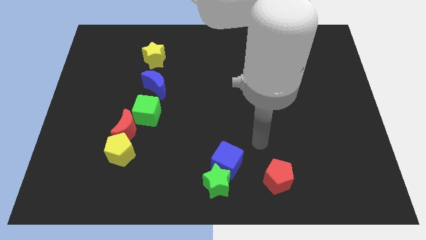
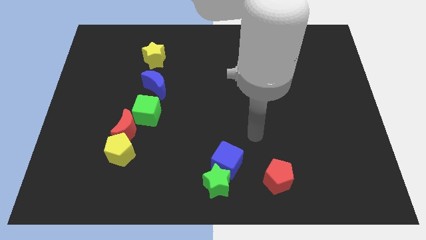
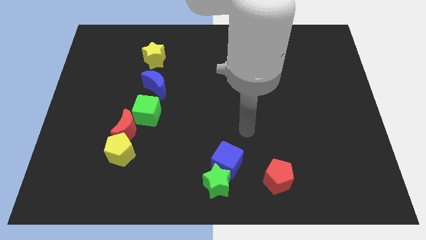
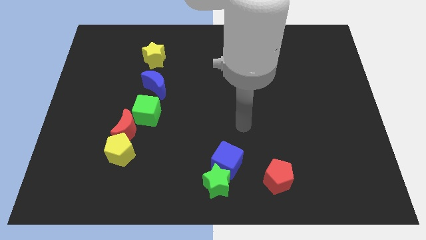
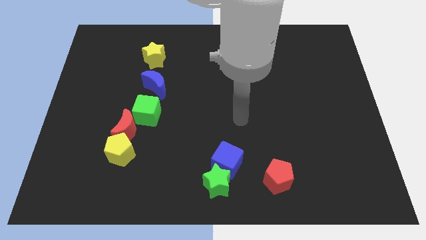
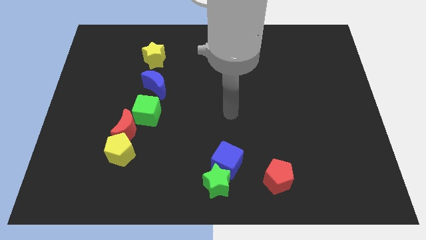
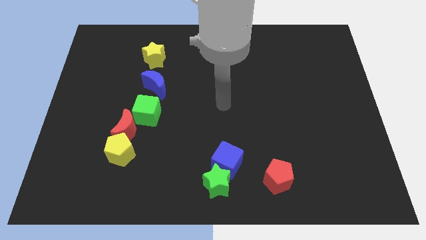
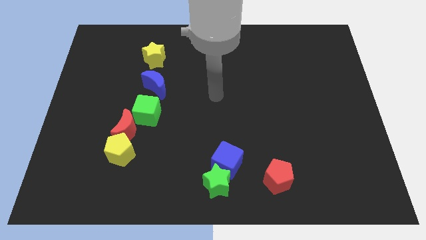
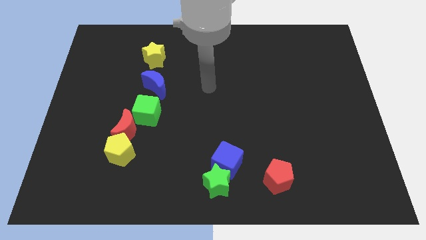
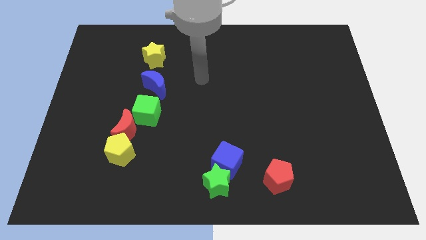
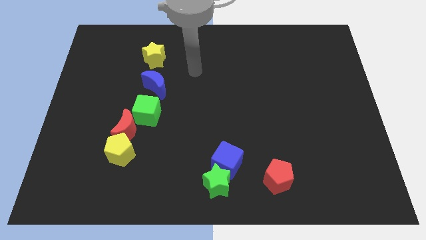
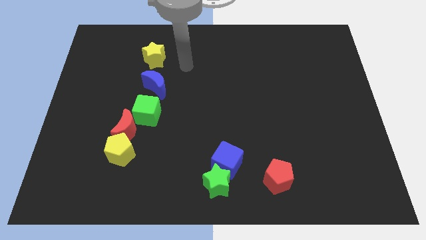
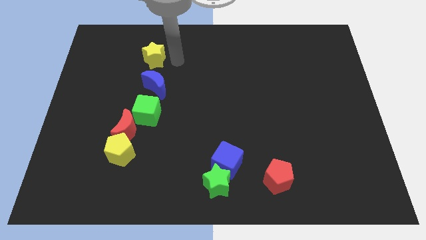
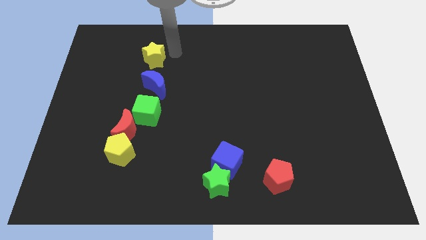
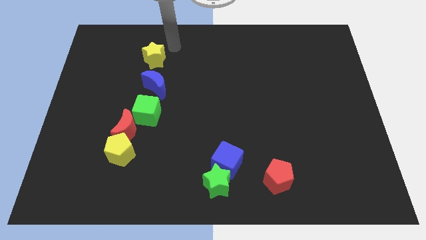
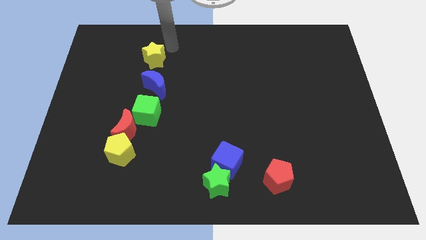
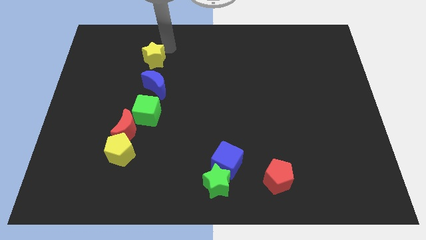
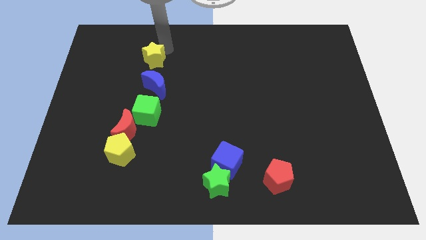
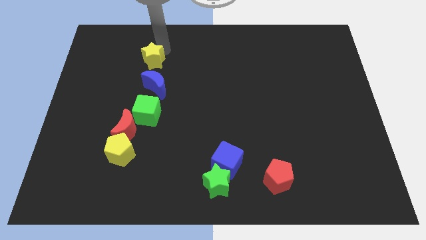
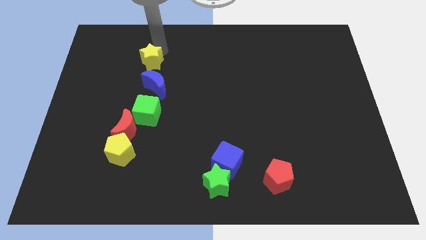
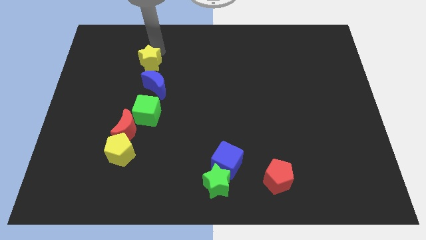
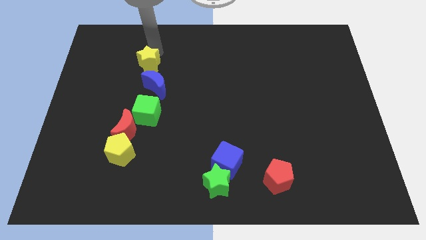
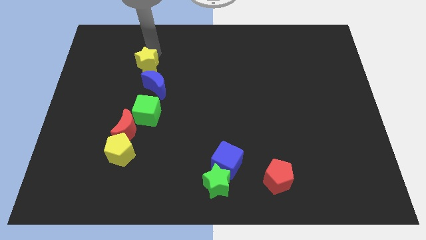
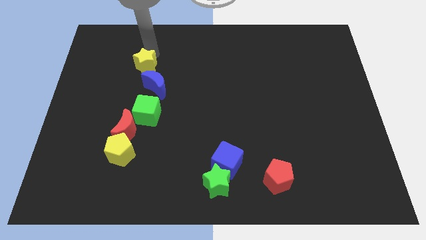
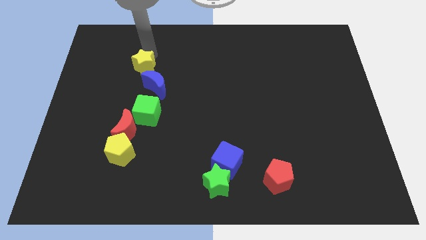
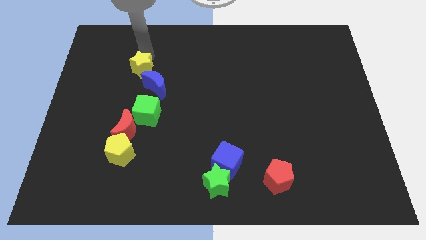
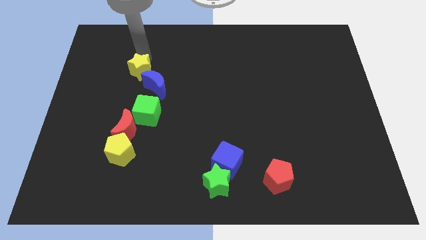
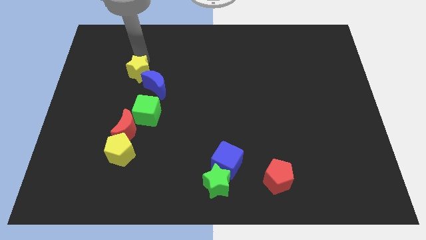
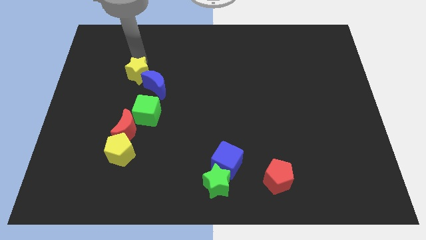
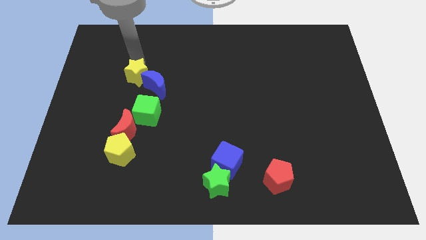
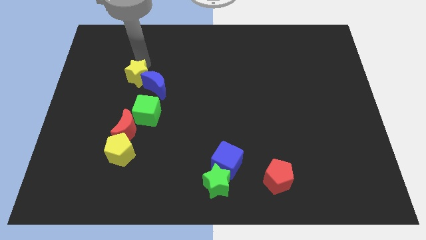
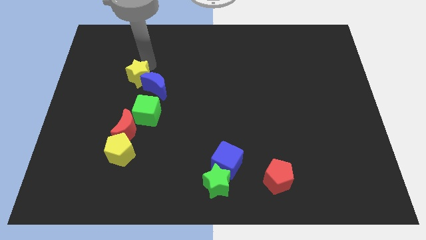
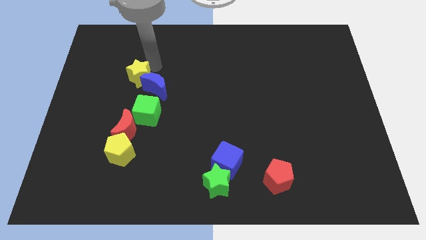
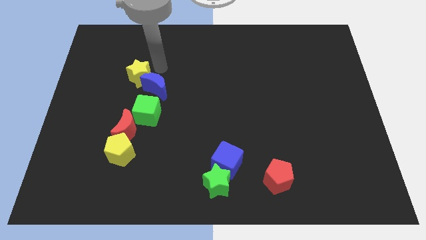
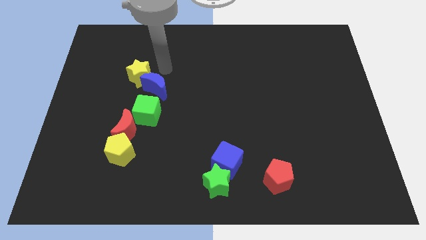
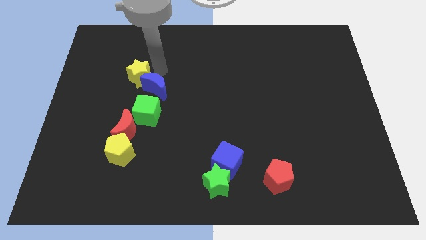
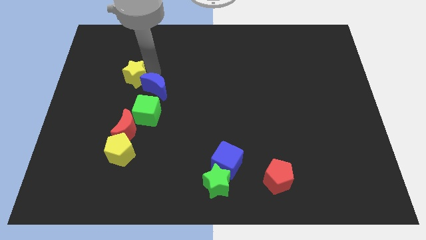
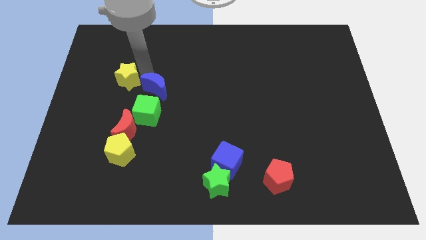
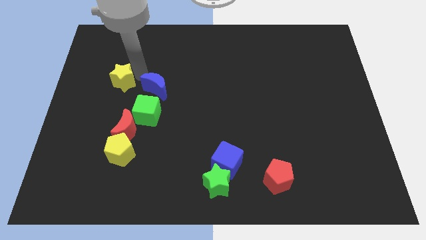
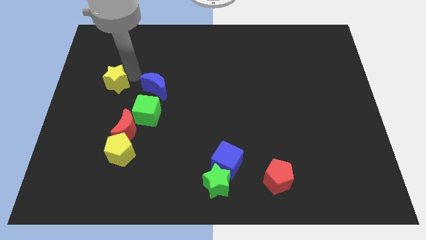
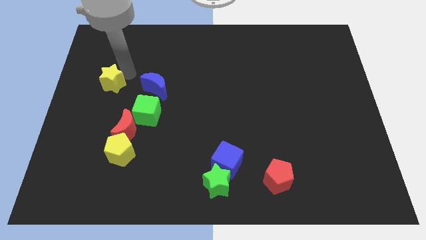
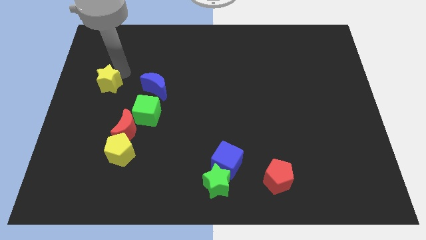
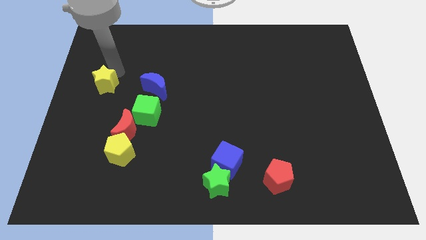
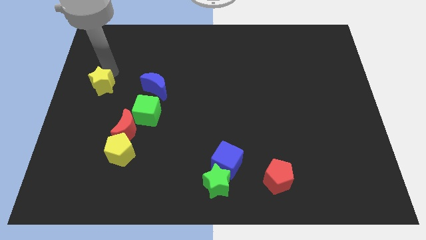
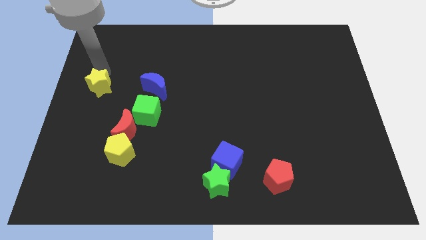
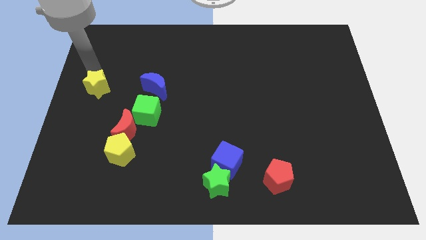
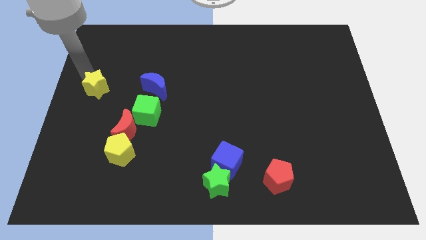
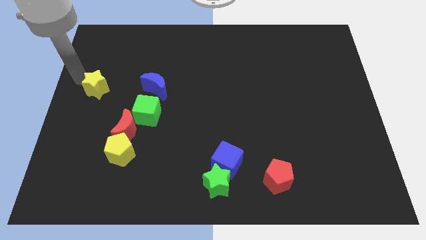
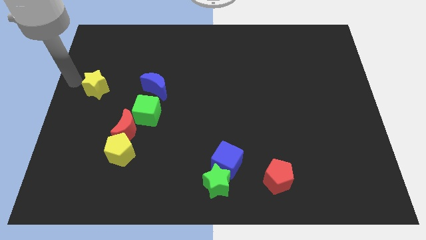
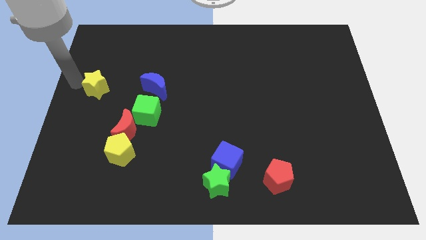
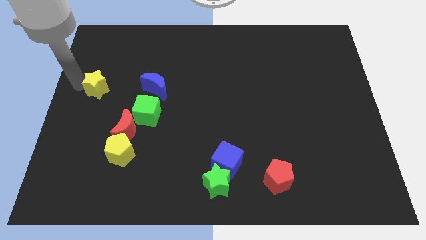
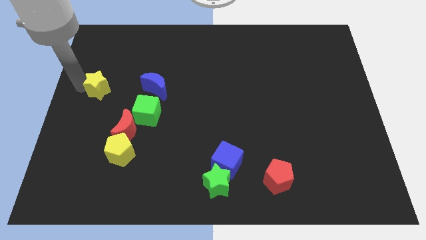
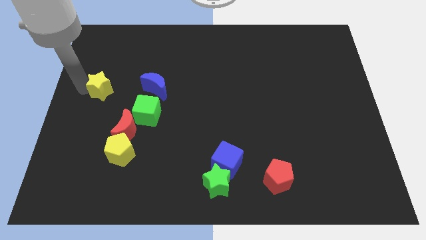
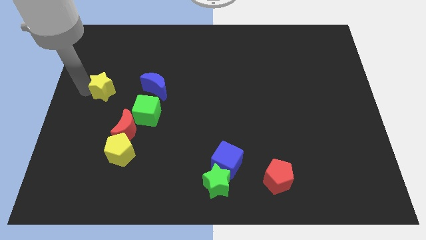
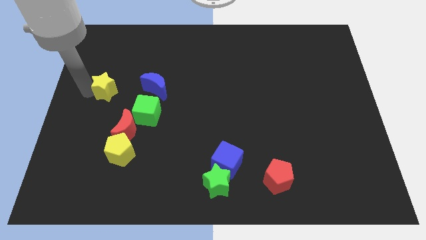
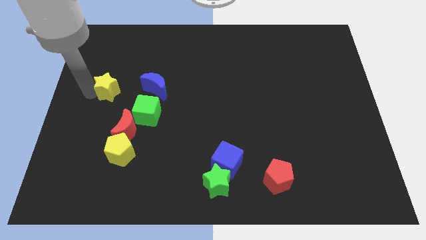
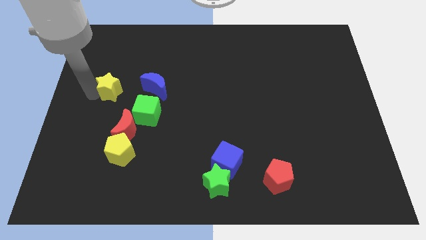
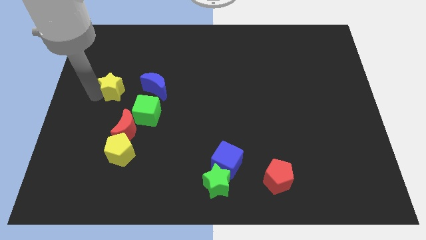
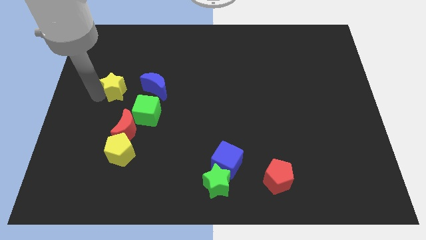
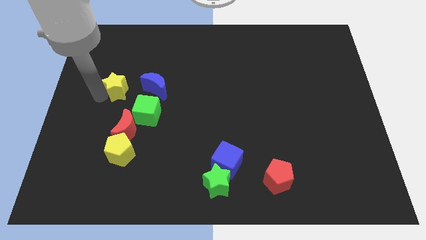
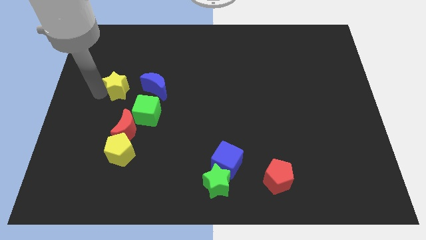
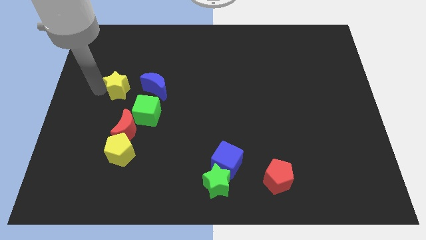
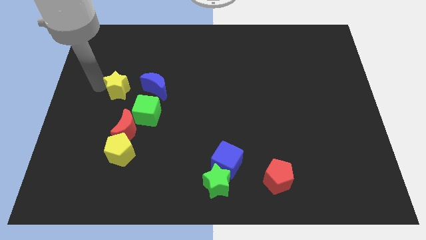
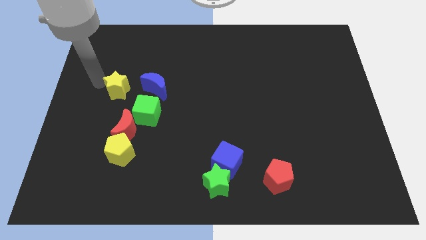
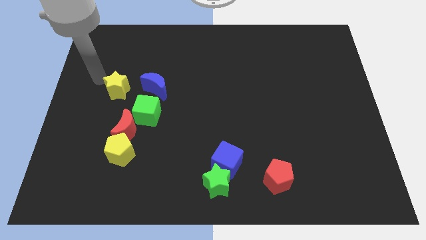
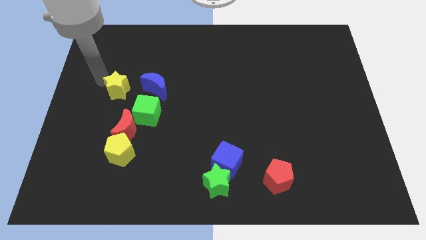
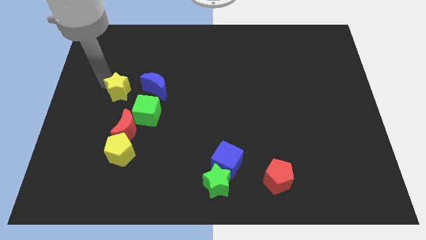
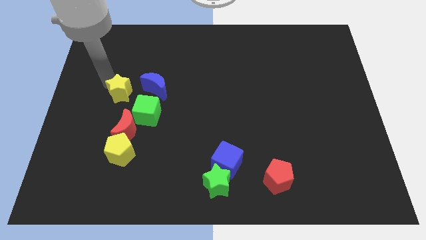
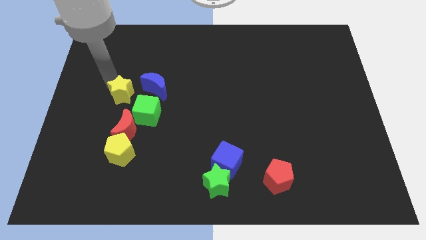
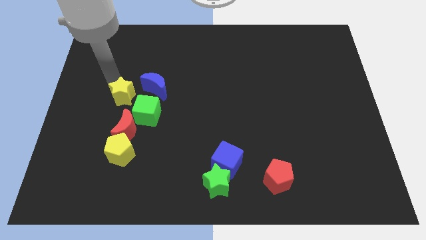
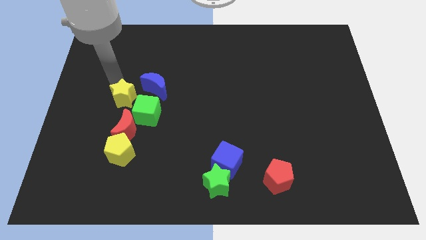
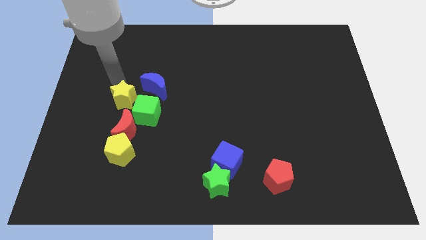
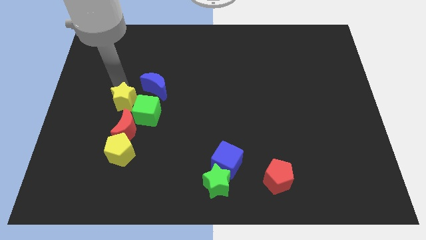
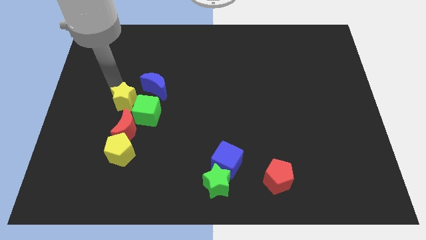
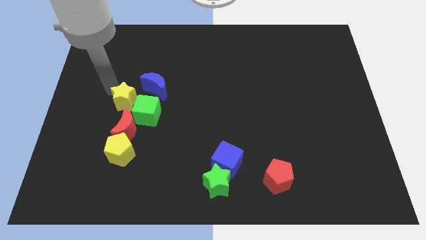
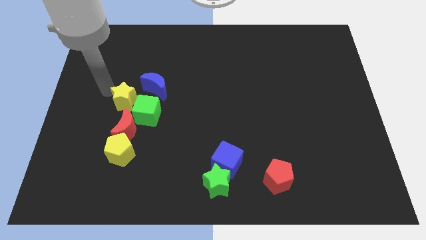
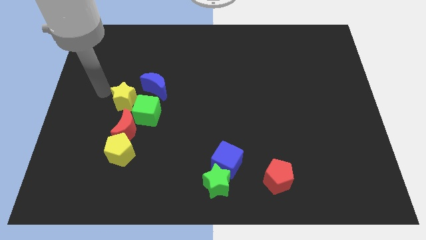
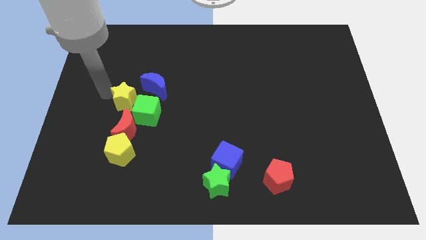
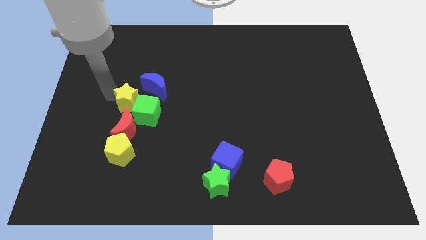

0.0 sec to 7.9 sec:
put the yellow star to the green cube
